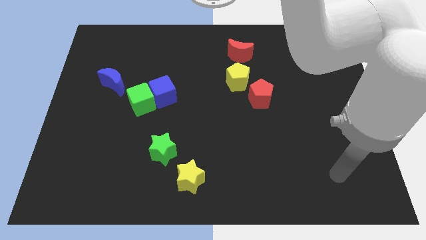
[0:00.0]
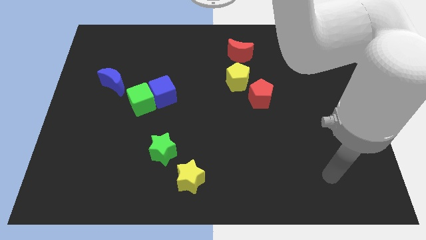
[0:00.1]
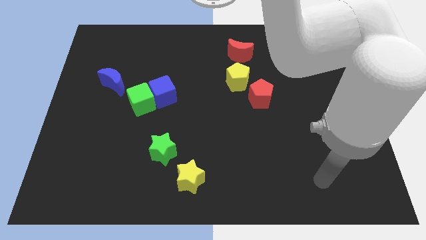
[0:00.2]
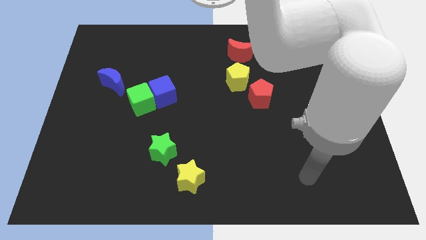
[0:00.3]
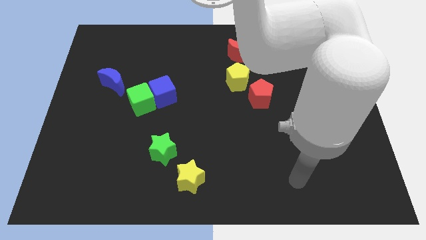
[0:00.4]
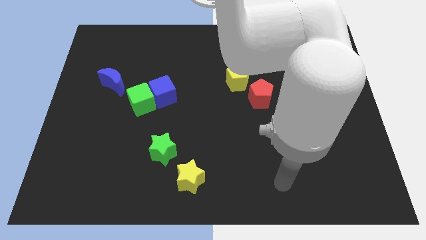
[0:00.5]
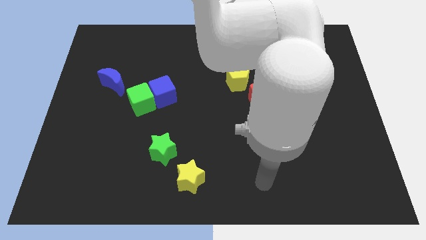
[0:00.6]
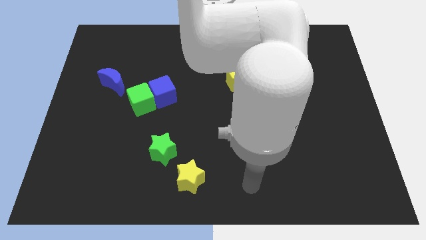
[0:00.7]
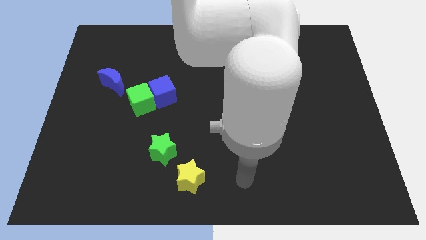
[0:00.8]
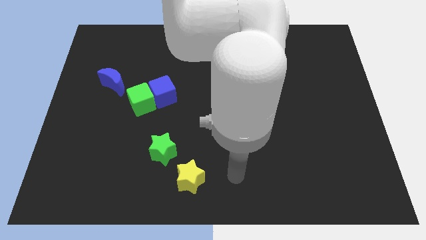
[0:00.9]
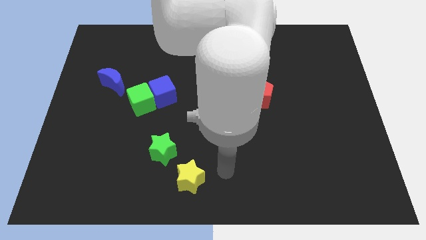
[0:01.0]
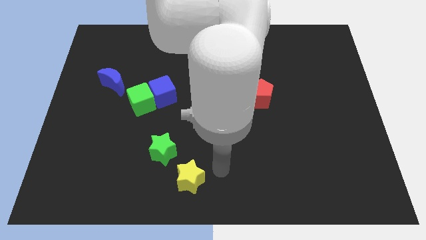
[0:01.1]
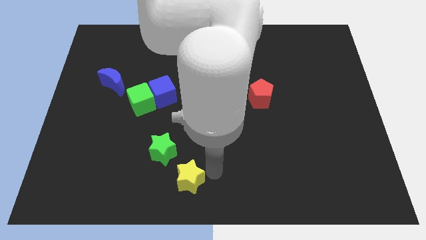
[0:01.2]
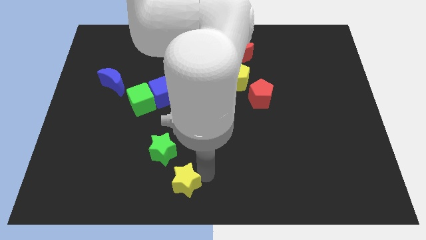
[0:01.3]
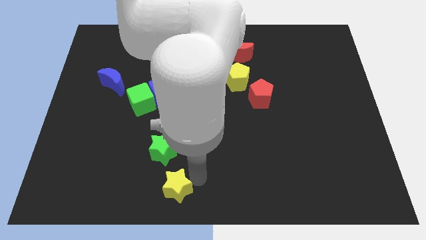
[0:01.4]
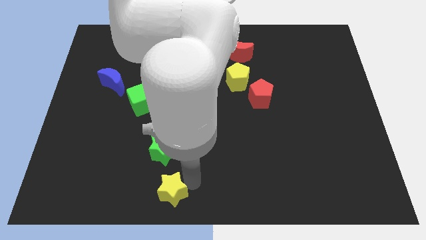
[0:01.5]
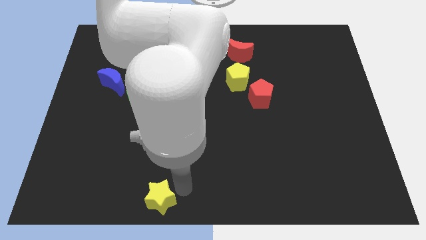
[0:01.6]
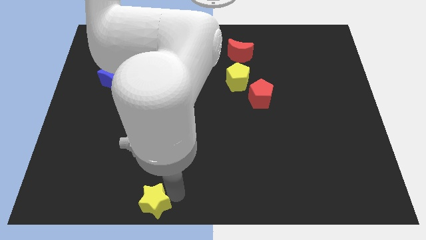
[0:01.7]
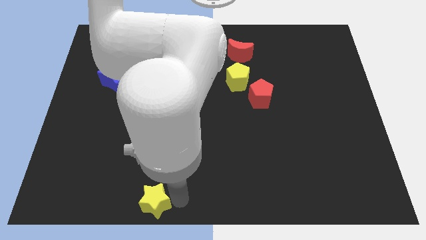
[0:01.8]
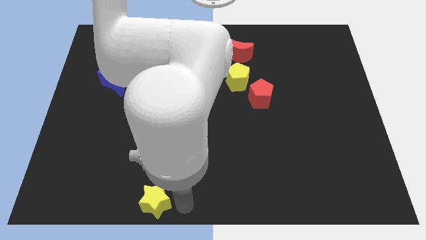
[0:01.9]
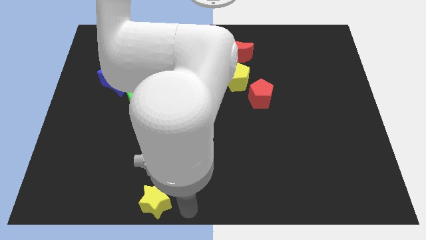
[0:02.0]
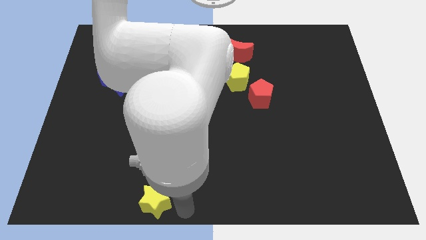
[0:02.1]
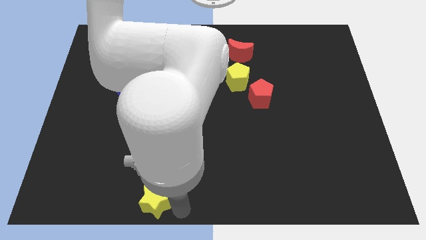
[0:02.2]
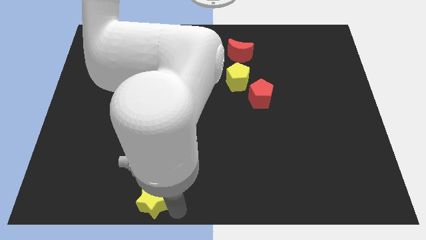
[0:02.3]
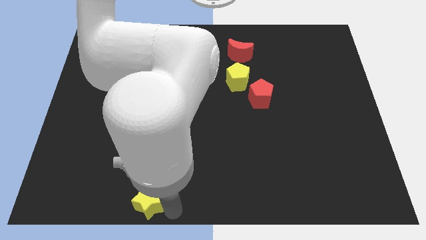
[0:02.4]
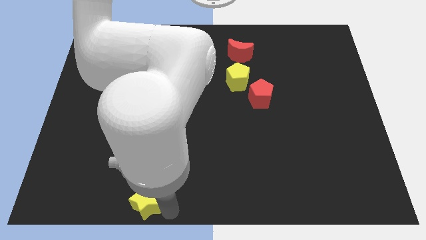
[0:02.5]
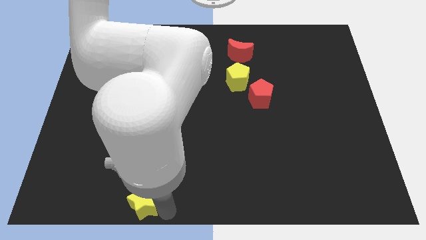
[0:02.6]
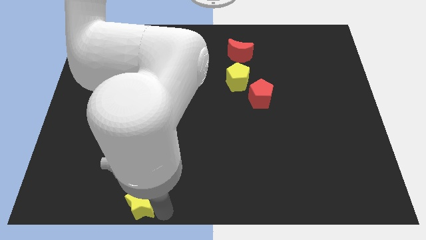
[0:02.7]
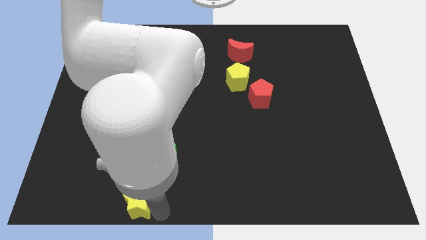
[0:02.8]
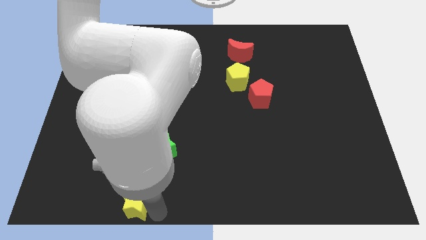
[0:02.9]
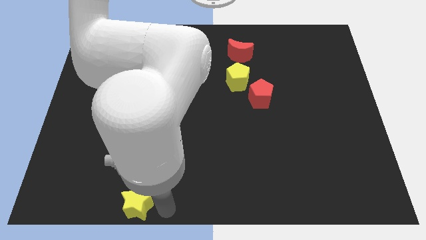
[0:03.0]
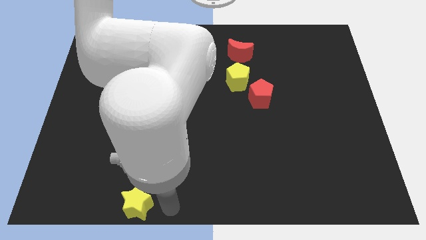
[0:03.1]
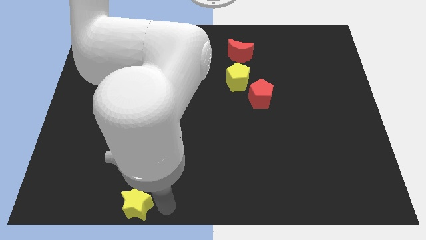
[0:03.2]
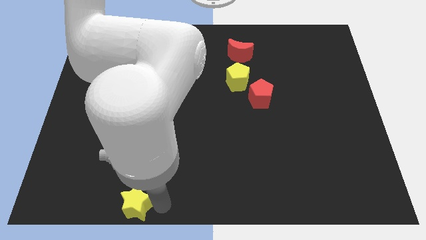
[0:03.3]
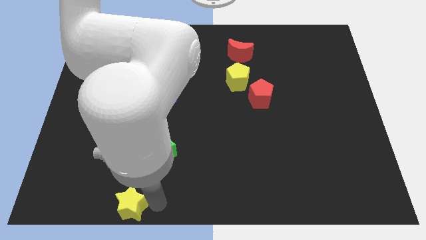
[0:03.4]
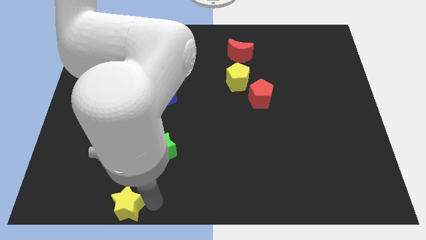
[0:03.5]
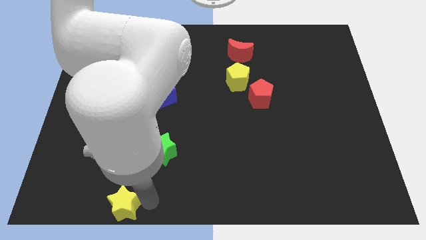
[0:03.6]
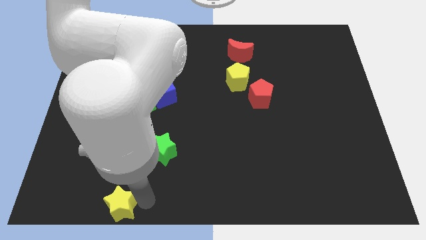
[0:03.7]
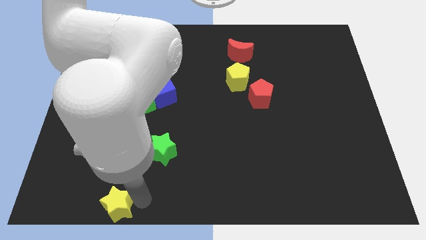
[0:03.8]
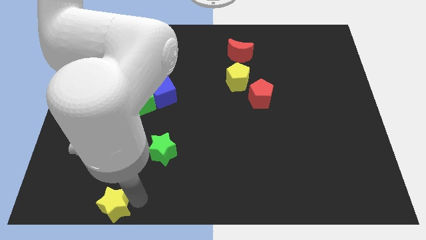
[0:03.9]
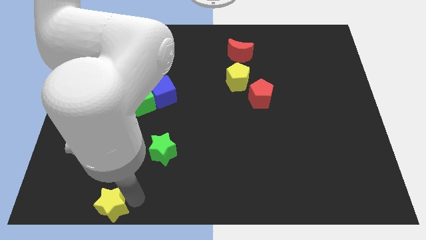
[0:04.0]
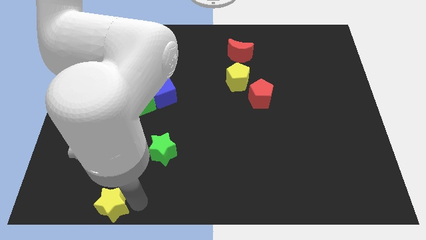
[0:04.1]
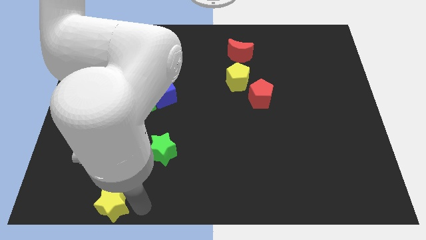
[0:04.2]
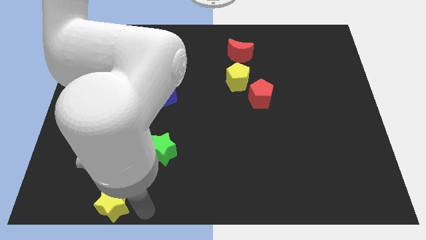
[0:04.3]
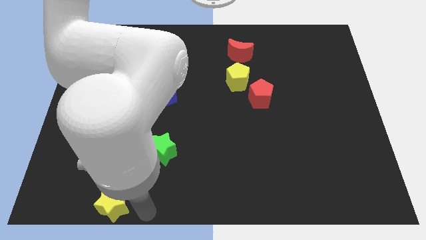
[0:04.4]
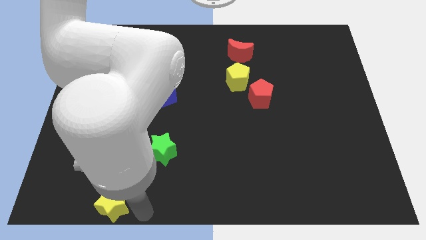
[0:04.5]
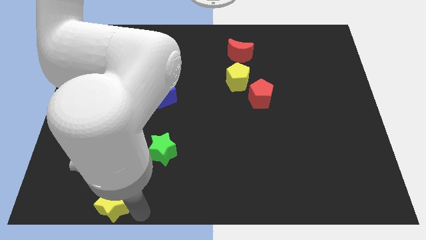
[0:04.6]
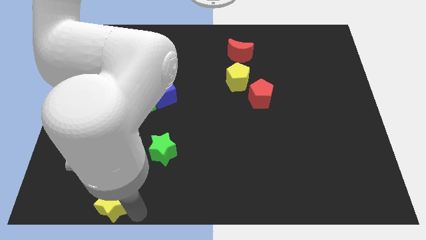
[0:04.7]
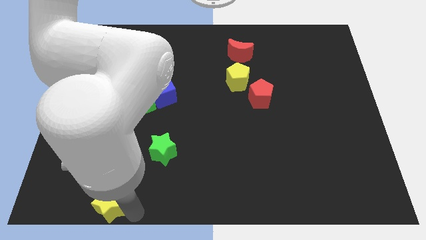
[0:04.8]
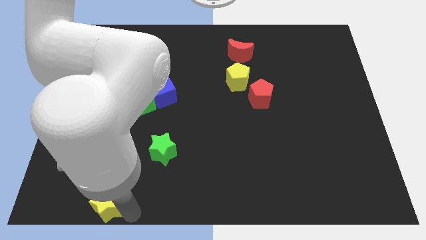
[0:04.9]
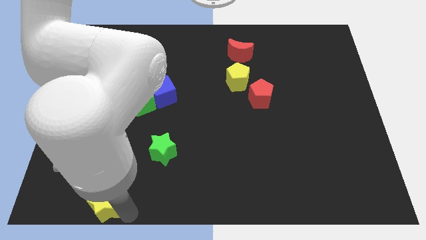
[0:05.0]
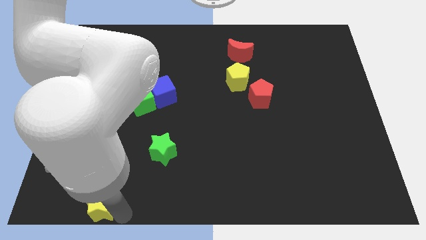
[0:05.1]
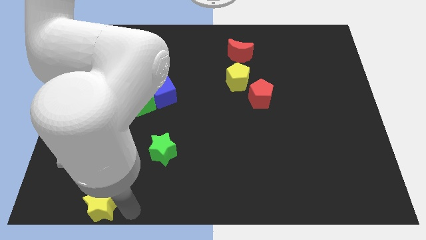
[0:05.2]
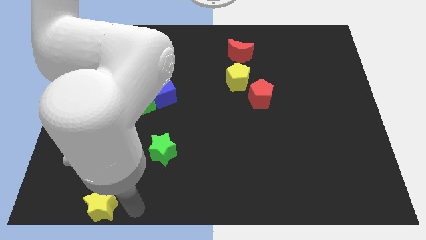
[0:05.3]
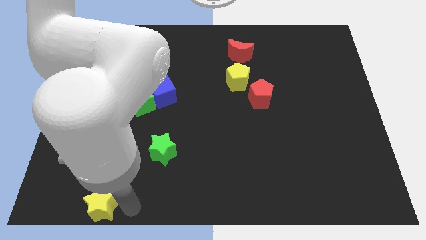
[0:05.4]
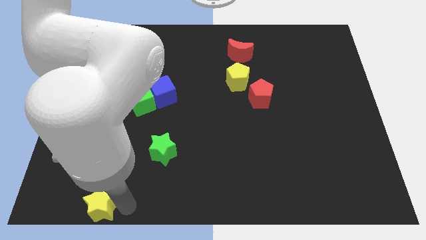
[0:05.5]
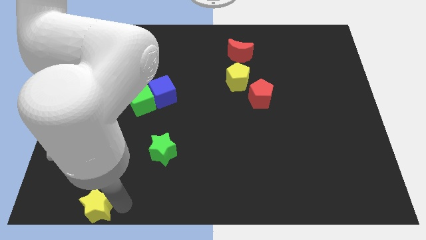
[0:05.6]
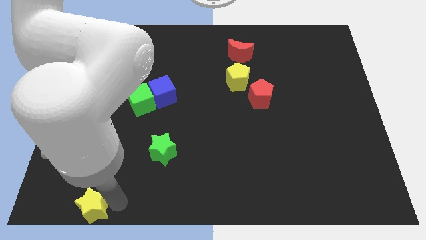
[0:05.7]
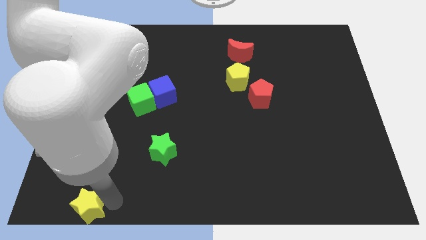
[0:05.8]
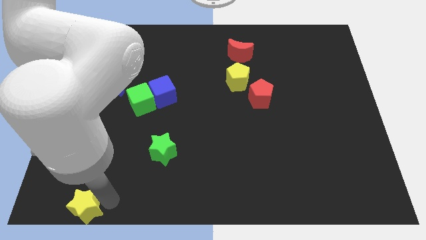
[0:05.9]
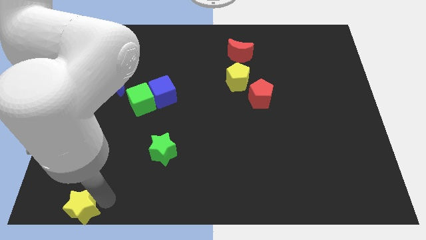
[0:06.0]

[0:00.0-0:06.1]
put the yellow star to the bottom left
